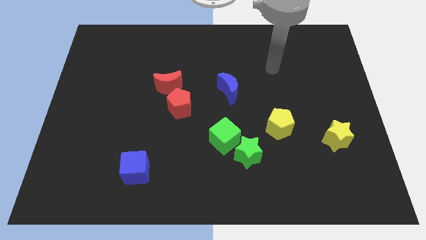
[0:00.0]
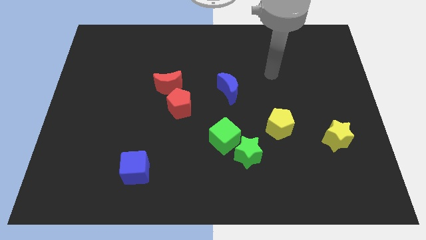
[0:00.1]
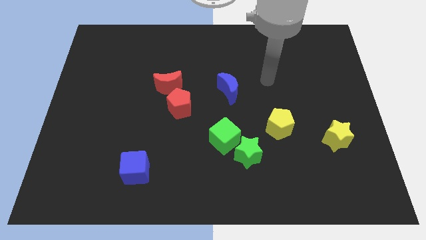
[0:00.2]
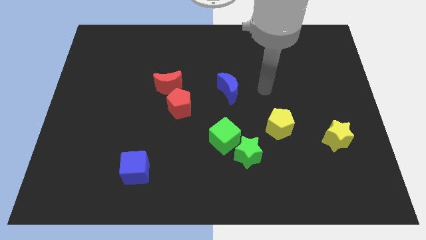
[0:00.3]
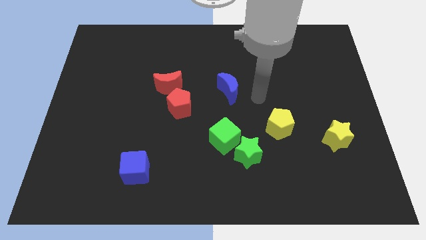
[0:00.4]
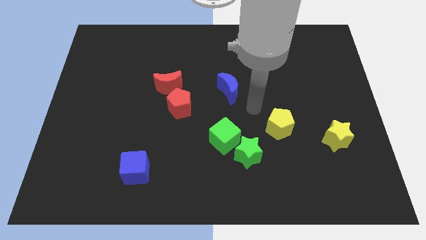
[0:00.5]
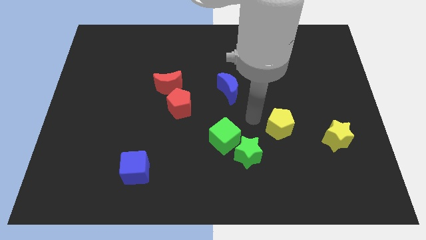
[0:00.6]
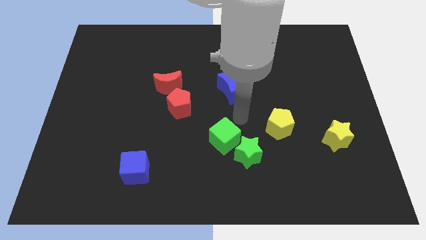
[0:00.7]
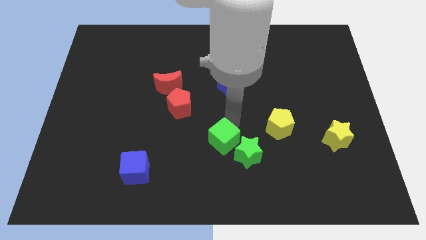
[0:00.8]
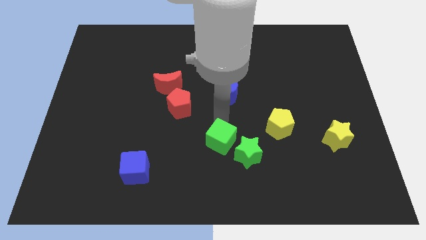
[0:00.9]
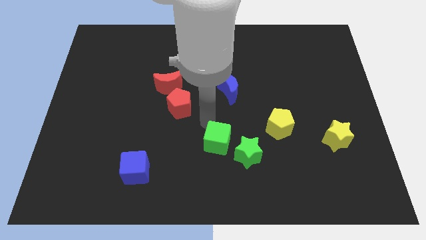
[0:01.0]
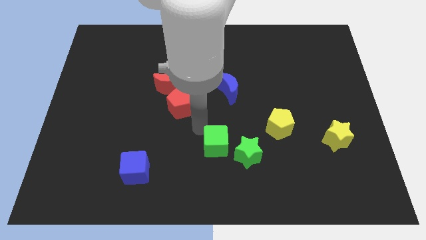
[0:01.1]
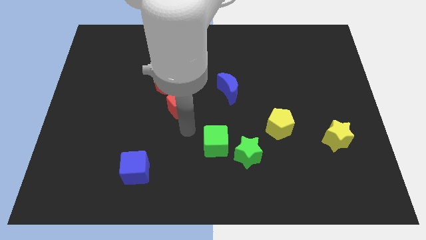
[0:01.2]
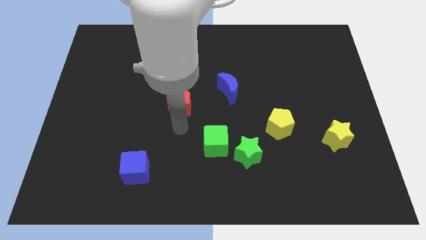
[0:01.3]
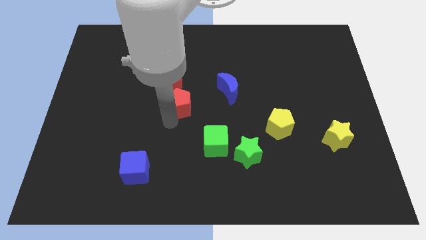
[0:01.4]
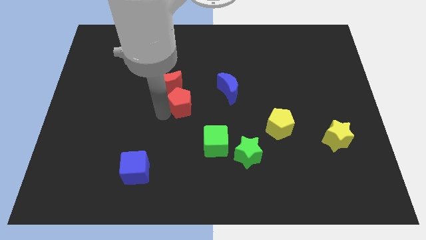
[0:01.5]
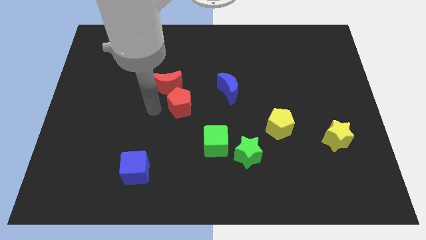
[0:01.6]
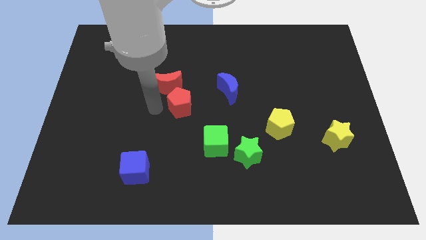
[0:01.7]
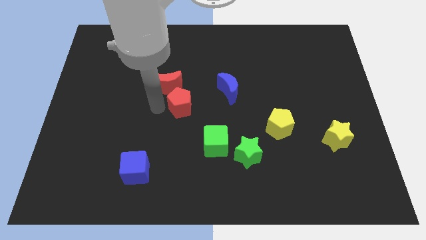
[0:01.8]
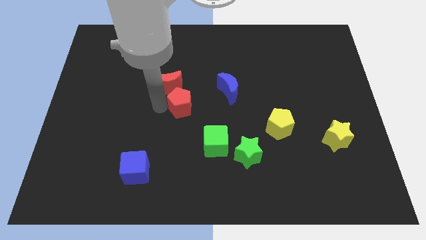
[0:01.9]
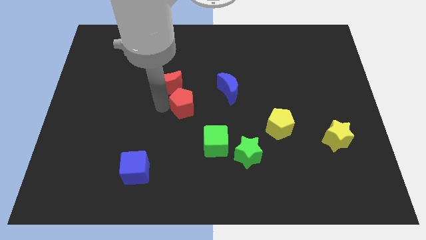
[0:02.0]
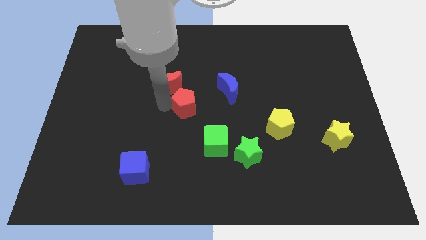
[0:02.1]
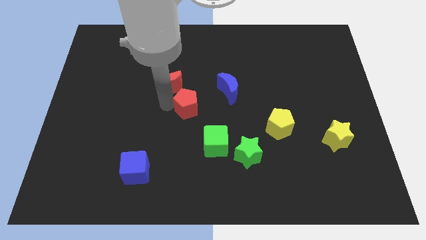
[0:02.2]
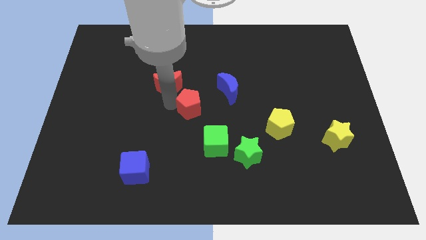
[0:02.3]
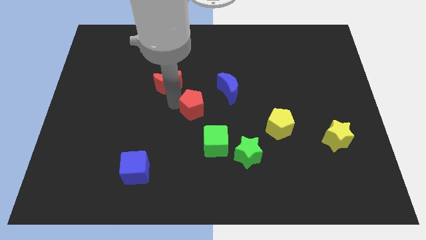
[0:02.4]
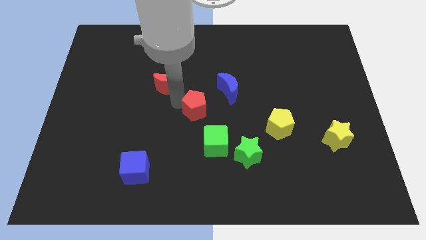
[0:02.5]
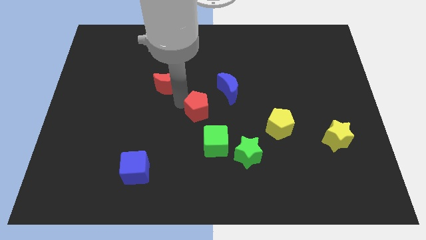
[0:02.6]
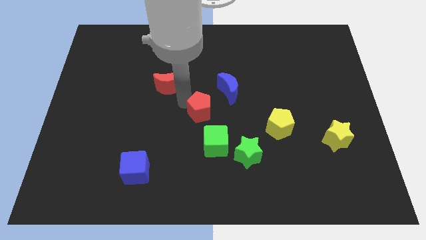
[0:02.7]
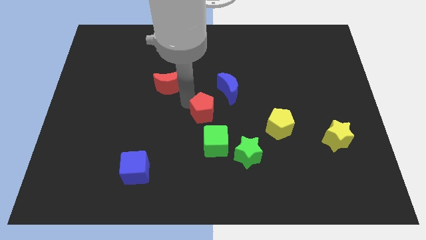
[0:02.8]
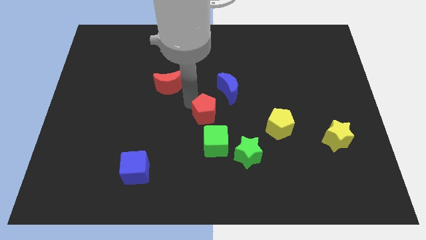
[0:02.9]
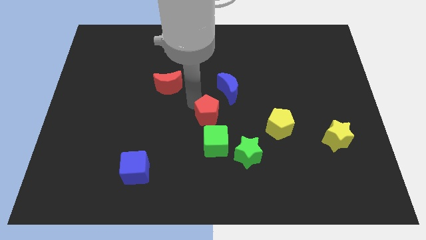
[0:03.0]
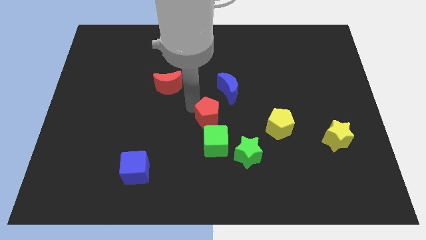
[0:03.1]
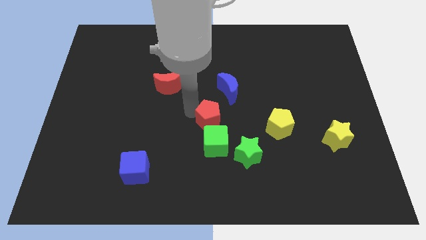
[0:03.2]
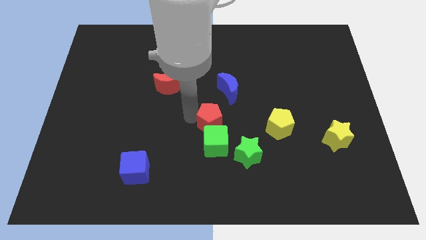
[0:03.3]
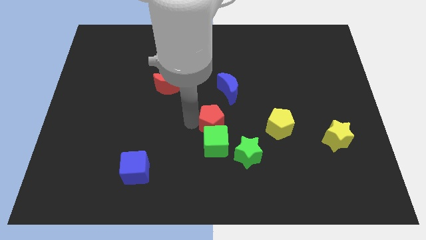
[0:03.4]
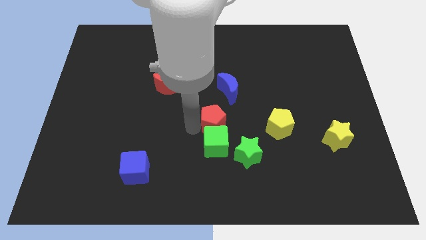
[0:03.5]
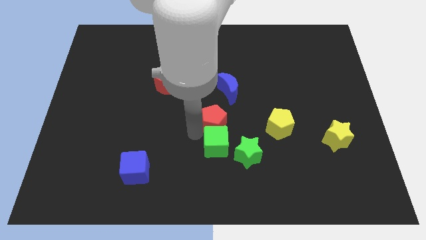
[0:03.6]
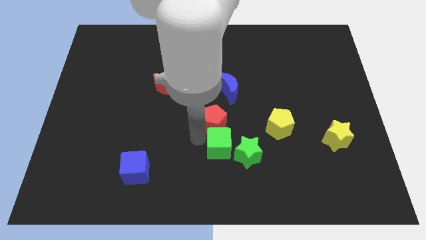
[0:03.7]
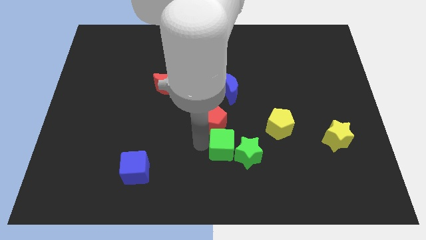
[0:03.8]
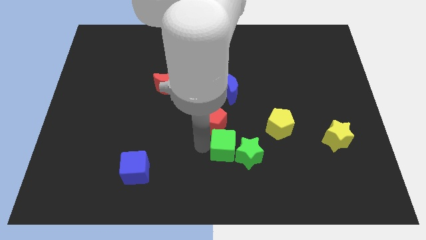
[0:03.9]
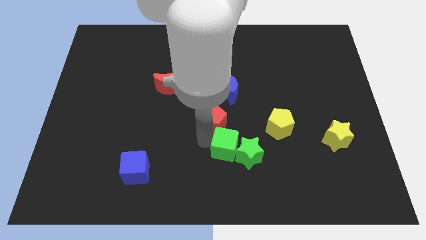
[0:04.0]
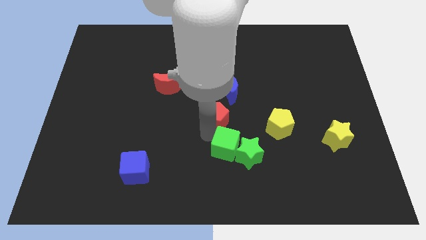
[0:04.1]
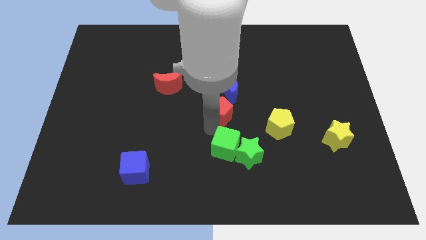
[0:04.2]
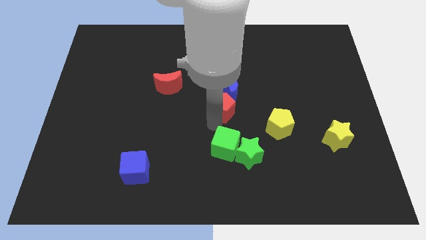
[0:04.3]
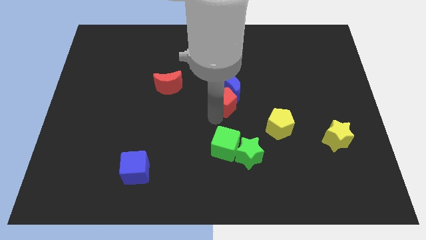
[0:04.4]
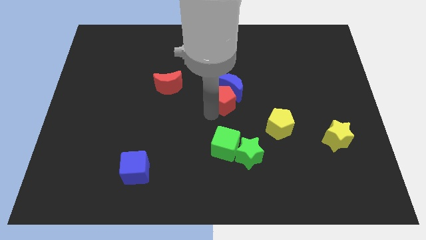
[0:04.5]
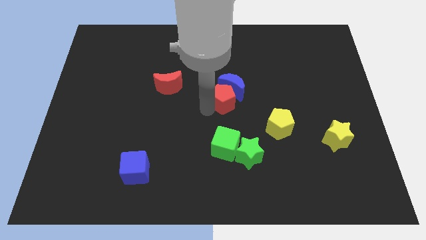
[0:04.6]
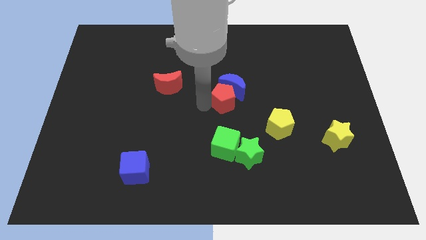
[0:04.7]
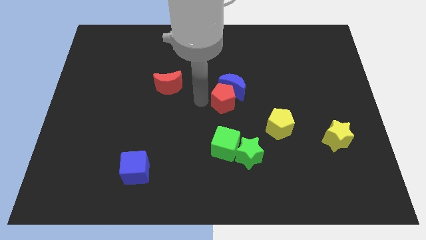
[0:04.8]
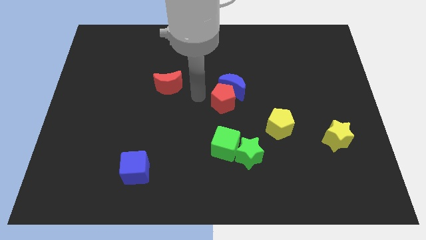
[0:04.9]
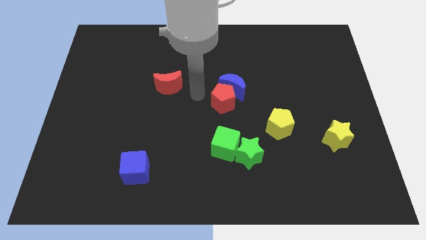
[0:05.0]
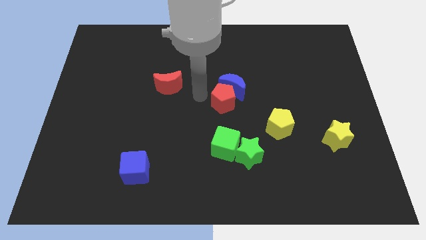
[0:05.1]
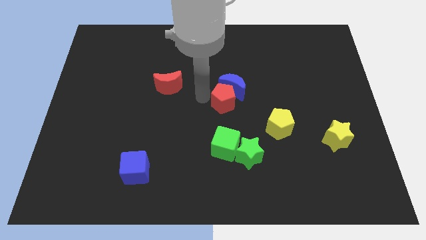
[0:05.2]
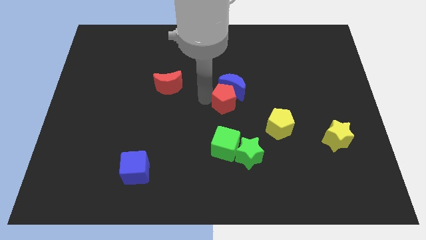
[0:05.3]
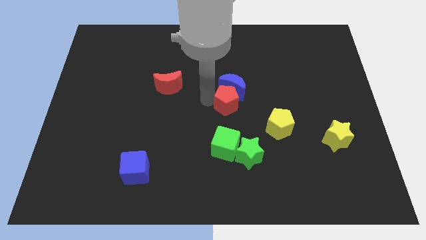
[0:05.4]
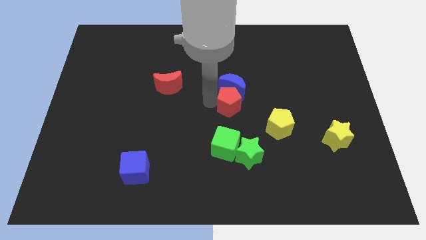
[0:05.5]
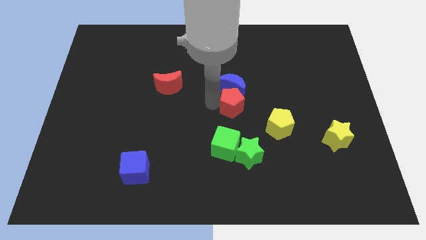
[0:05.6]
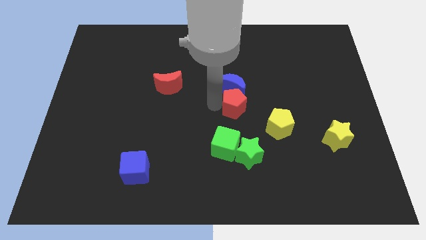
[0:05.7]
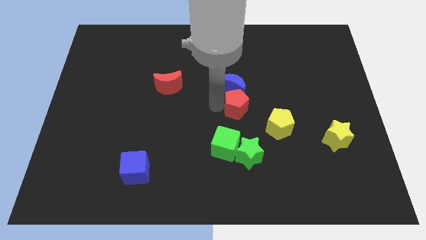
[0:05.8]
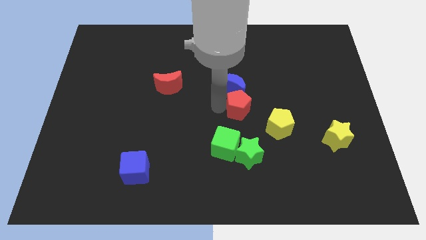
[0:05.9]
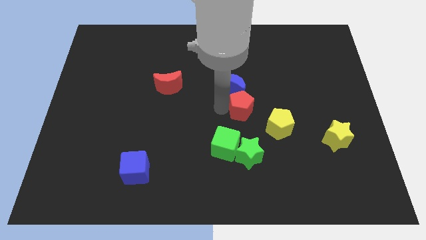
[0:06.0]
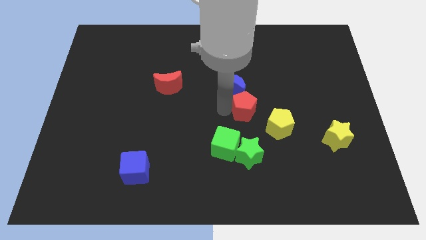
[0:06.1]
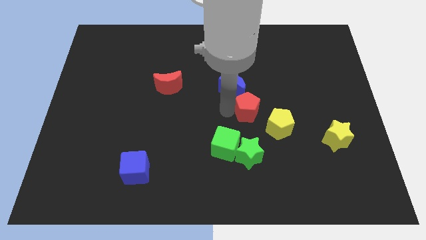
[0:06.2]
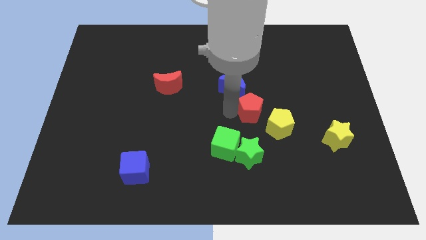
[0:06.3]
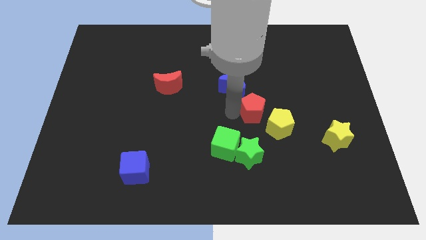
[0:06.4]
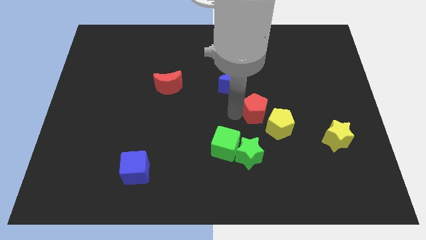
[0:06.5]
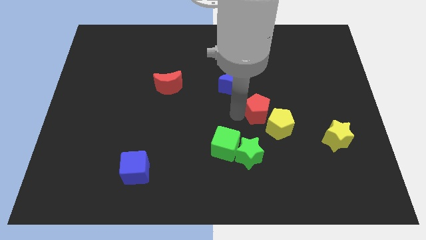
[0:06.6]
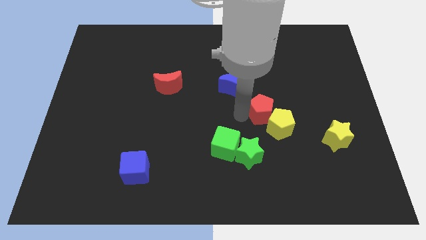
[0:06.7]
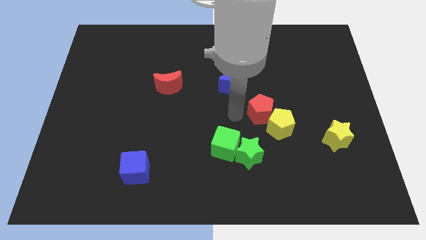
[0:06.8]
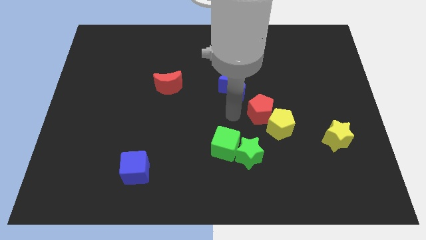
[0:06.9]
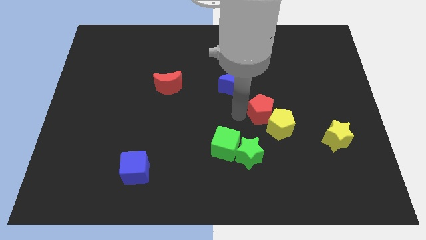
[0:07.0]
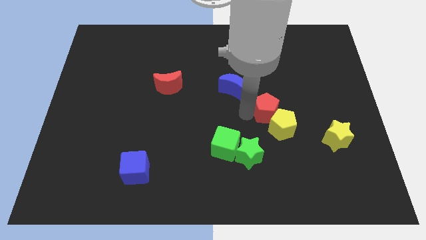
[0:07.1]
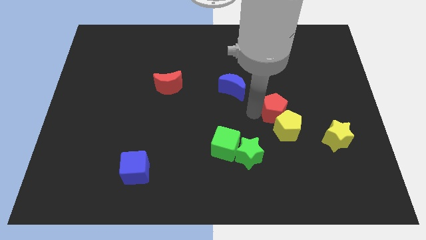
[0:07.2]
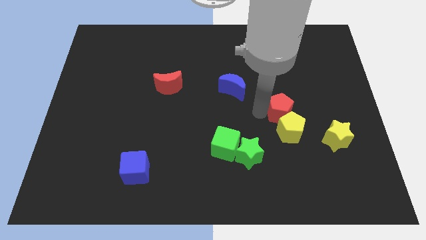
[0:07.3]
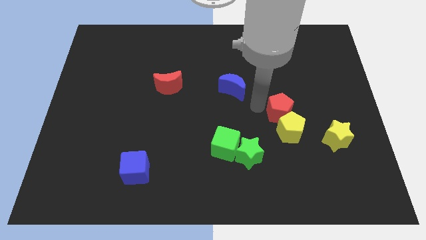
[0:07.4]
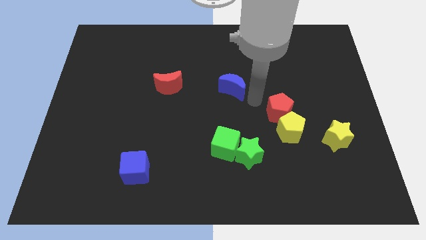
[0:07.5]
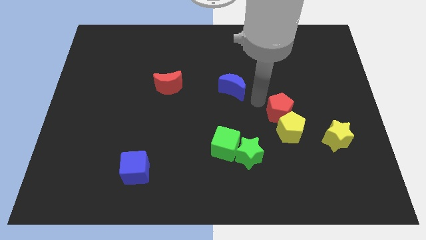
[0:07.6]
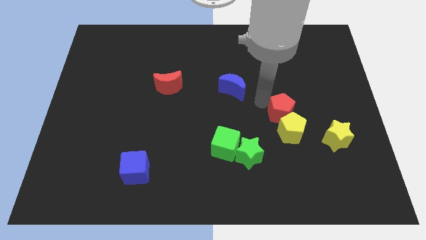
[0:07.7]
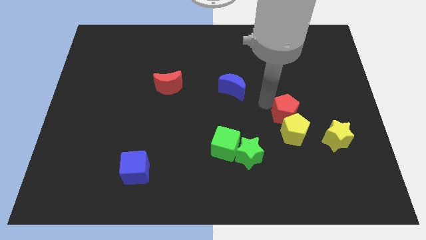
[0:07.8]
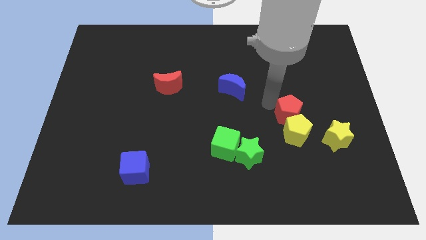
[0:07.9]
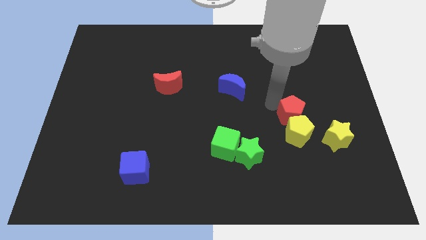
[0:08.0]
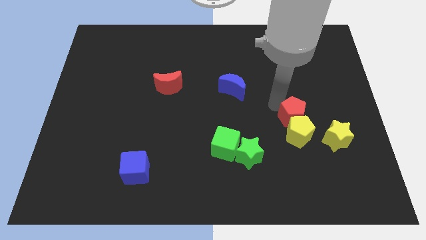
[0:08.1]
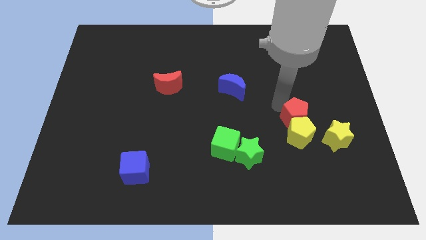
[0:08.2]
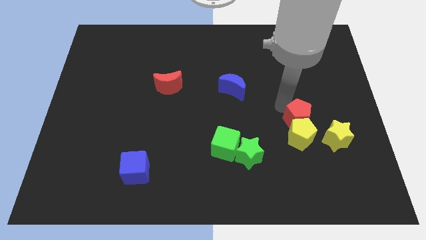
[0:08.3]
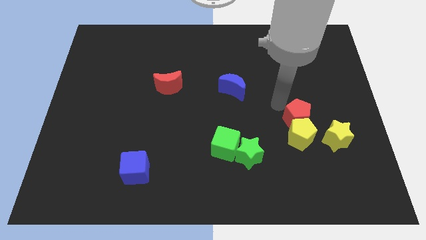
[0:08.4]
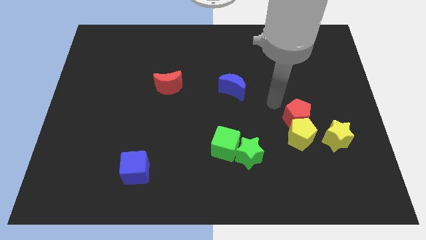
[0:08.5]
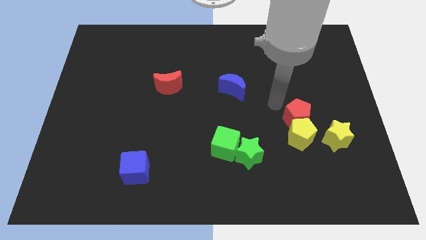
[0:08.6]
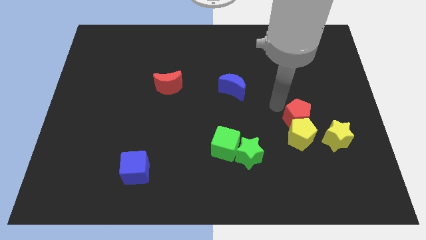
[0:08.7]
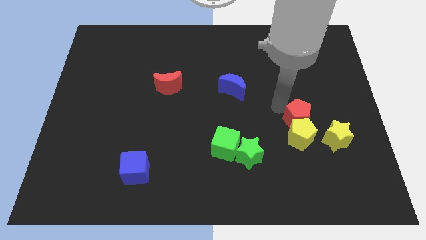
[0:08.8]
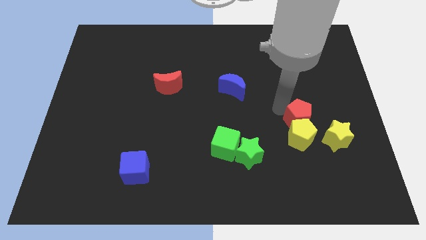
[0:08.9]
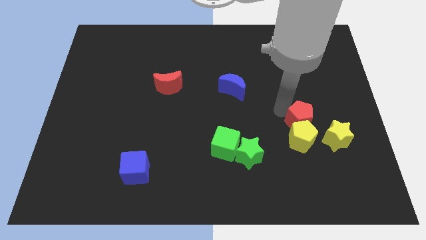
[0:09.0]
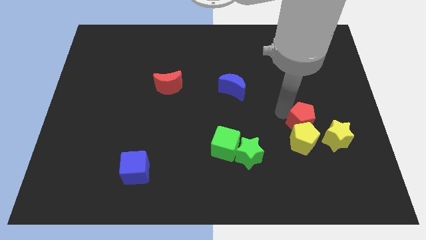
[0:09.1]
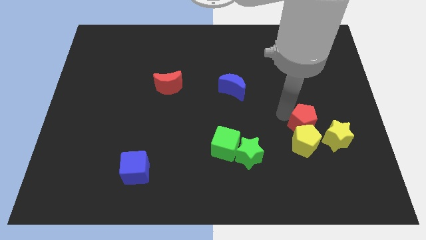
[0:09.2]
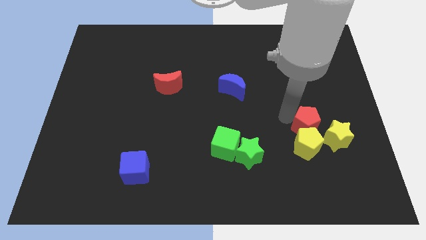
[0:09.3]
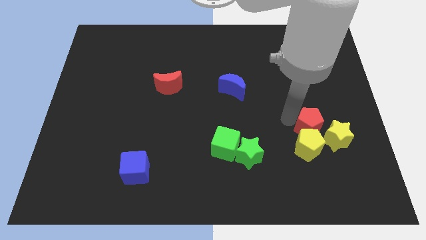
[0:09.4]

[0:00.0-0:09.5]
push the red pentagon next to the yellow star
